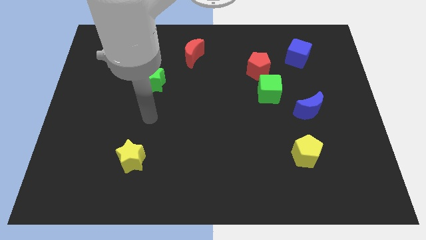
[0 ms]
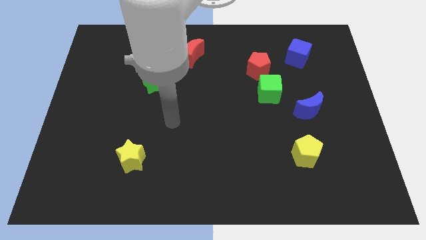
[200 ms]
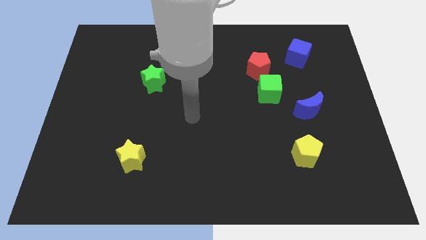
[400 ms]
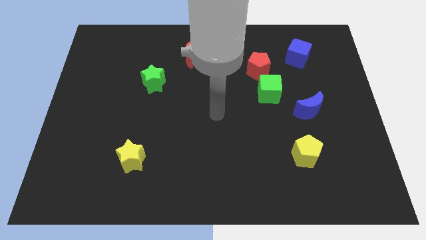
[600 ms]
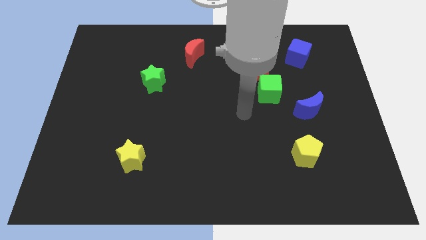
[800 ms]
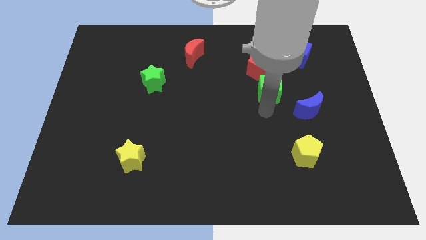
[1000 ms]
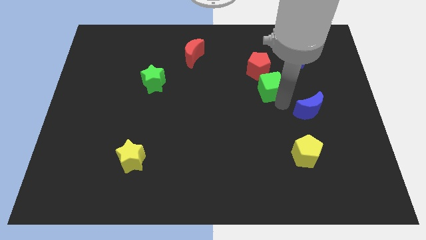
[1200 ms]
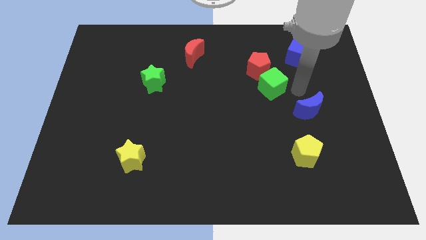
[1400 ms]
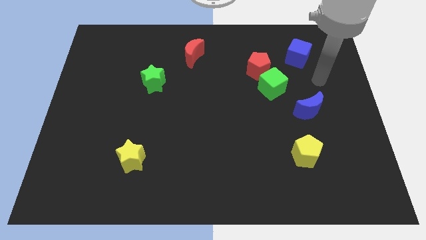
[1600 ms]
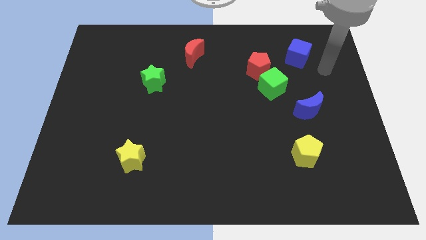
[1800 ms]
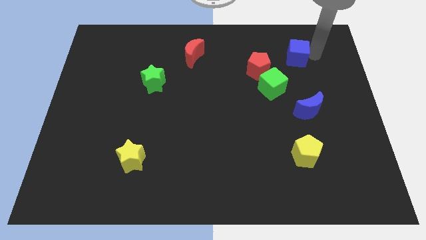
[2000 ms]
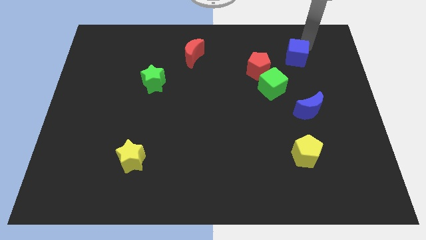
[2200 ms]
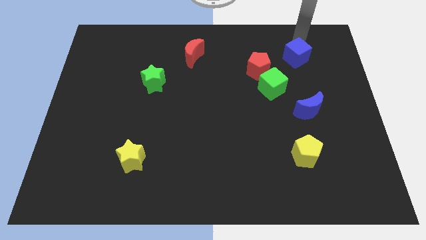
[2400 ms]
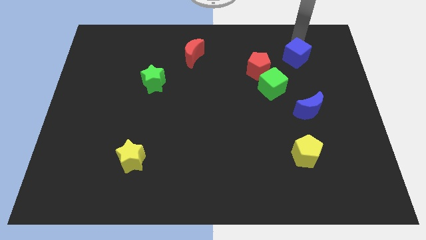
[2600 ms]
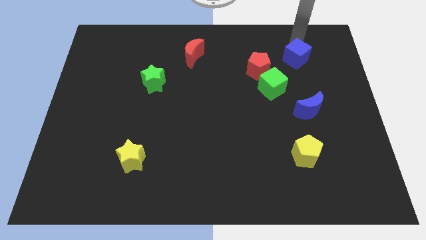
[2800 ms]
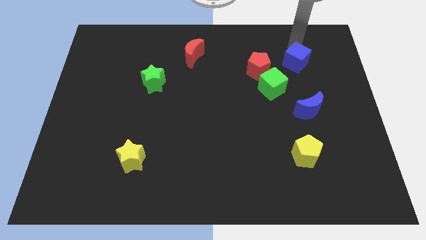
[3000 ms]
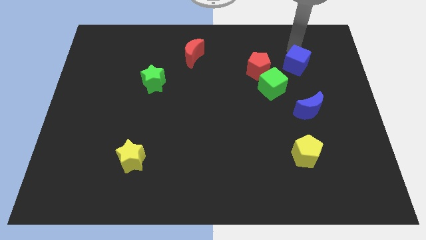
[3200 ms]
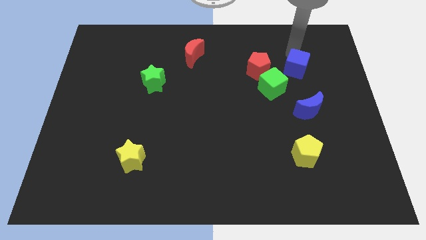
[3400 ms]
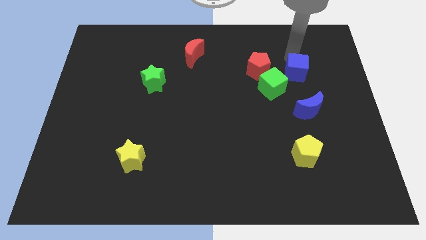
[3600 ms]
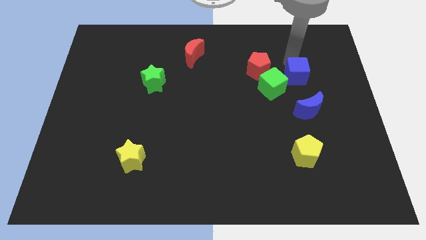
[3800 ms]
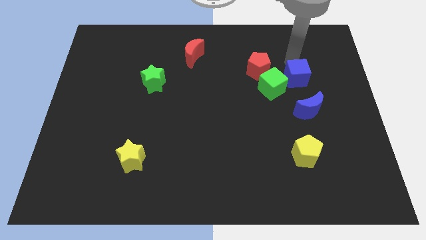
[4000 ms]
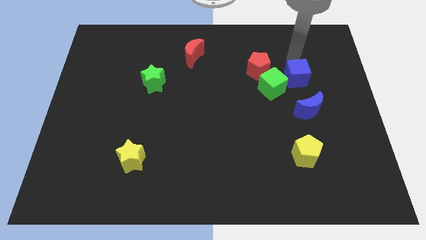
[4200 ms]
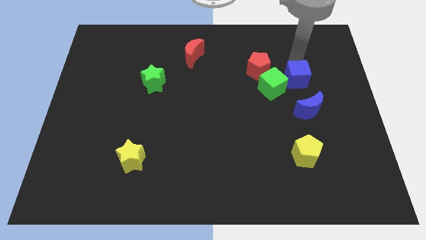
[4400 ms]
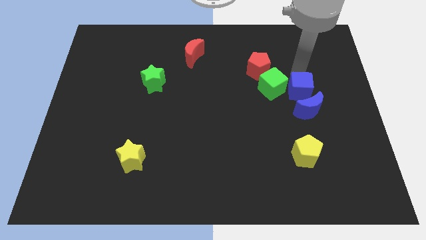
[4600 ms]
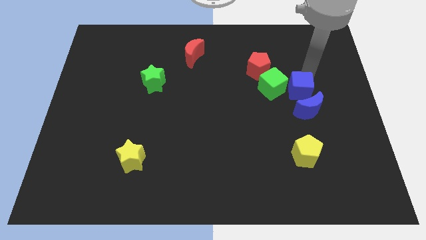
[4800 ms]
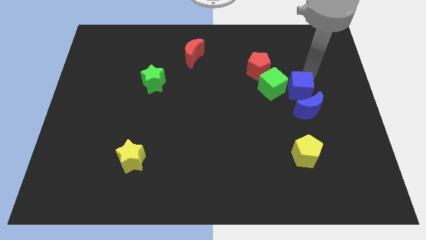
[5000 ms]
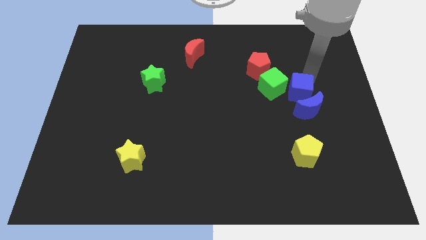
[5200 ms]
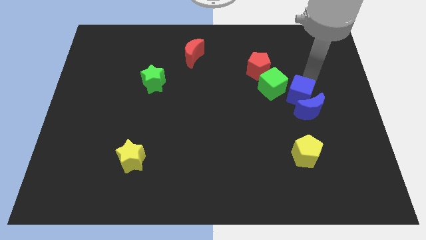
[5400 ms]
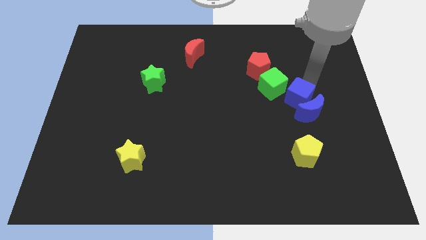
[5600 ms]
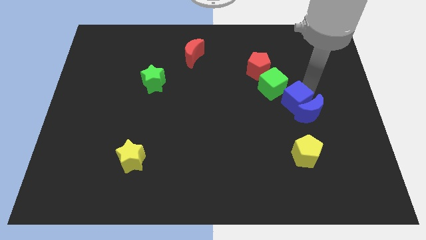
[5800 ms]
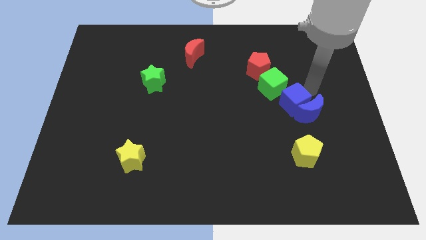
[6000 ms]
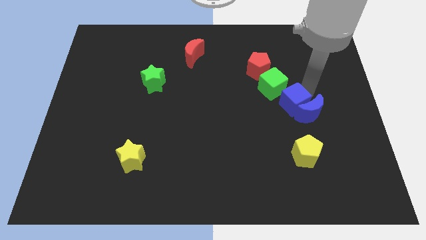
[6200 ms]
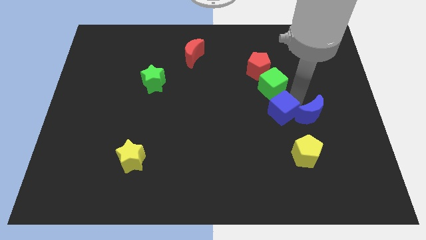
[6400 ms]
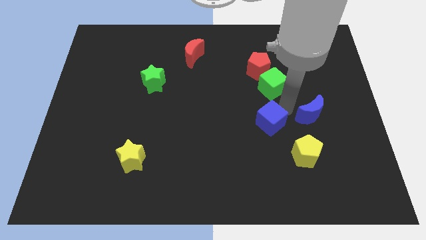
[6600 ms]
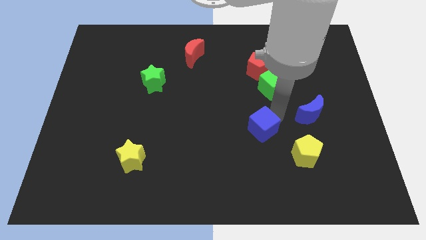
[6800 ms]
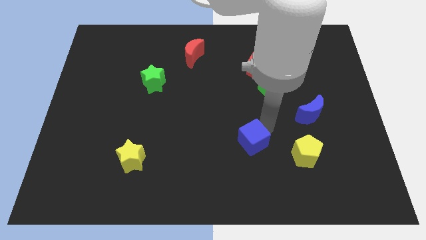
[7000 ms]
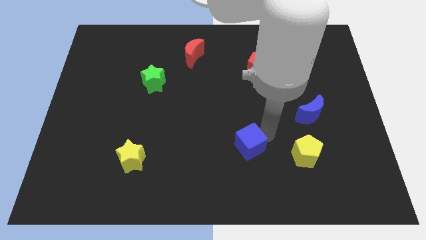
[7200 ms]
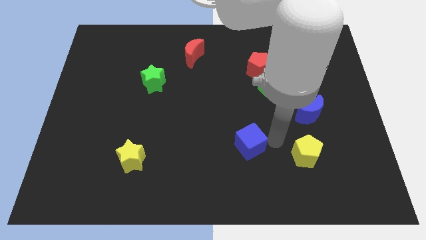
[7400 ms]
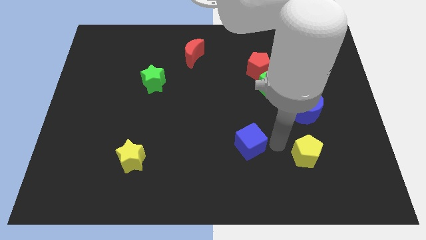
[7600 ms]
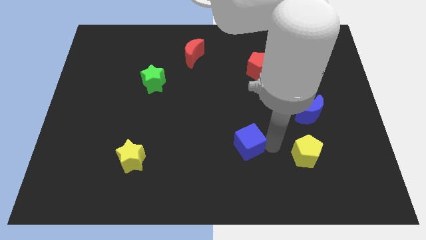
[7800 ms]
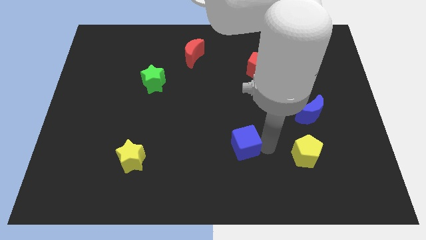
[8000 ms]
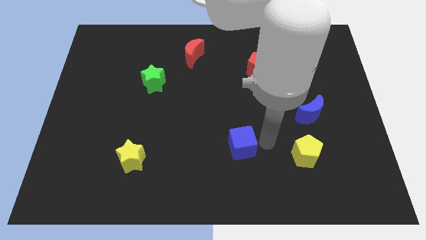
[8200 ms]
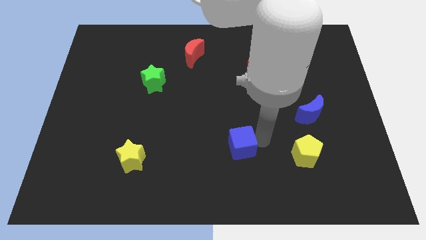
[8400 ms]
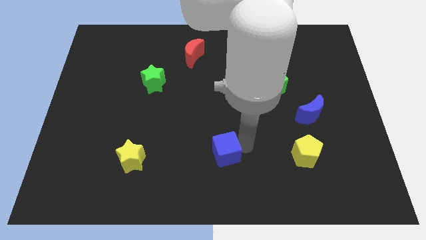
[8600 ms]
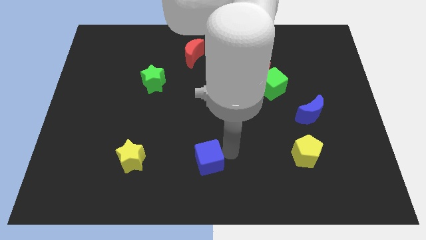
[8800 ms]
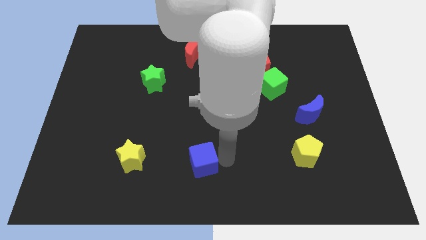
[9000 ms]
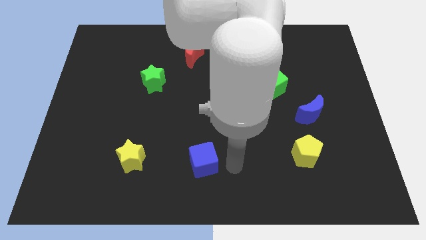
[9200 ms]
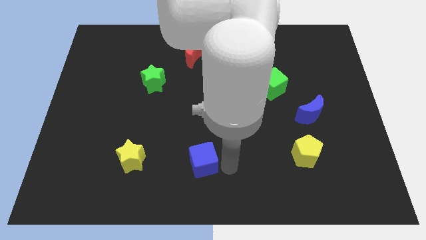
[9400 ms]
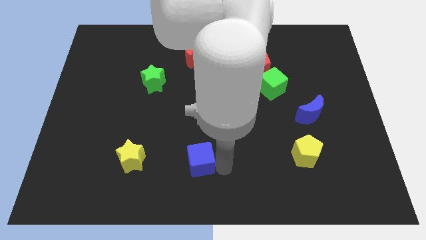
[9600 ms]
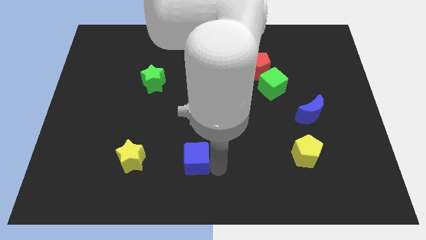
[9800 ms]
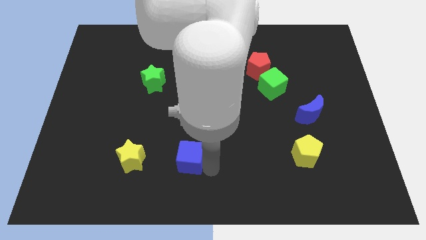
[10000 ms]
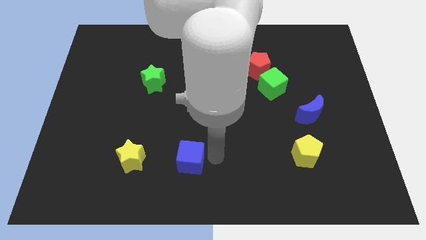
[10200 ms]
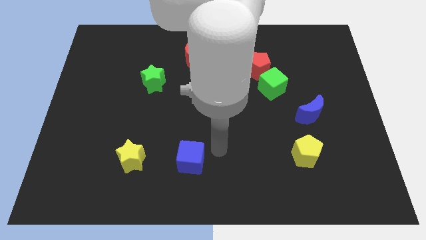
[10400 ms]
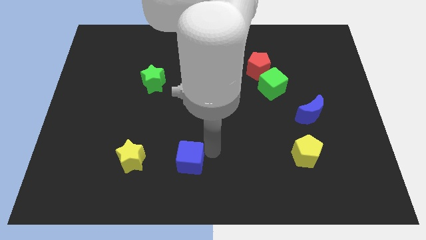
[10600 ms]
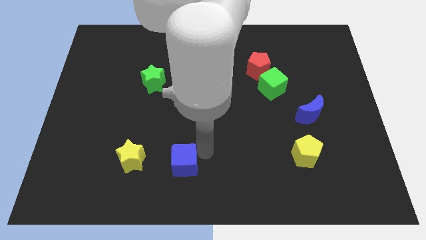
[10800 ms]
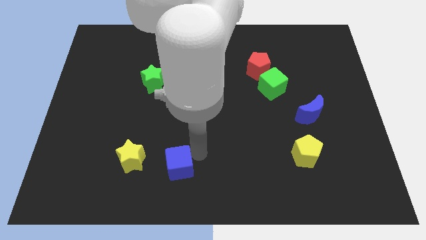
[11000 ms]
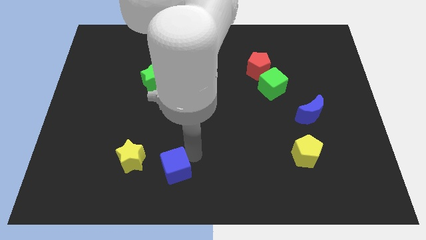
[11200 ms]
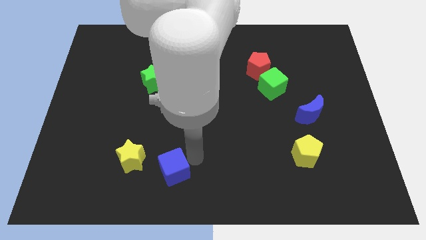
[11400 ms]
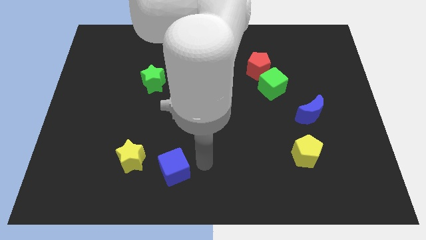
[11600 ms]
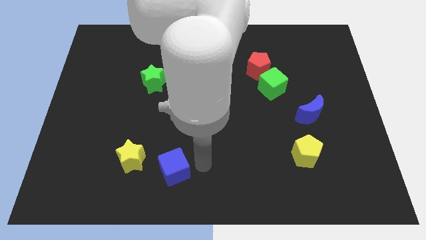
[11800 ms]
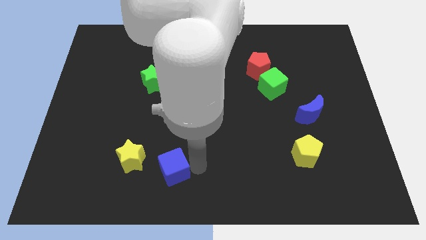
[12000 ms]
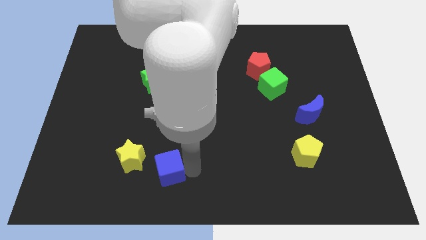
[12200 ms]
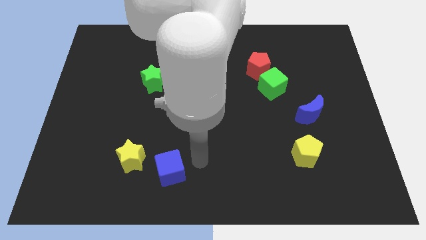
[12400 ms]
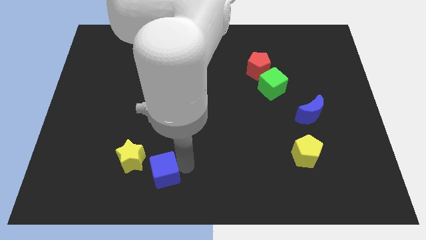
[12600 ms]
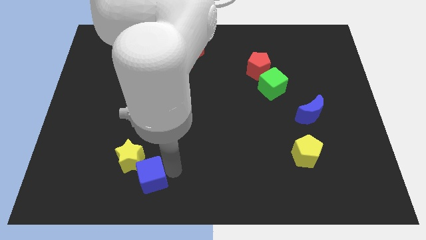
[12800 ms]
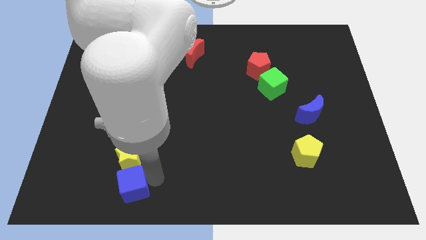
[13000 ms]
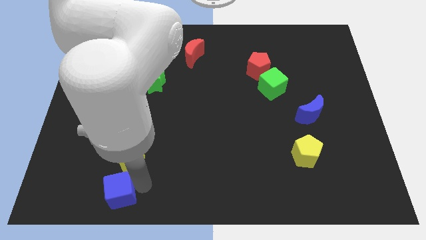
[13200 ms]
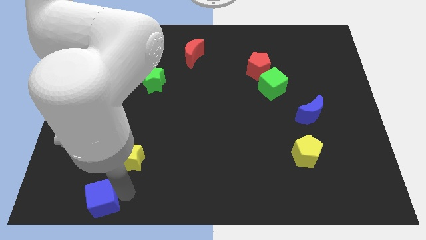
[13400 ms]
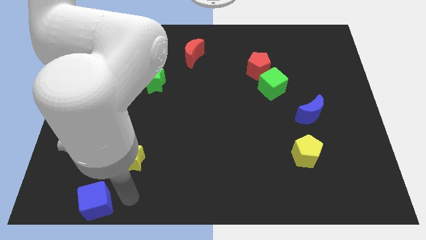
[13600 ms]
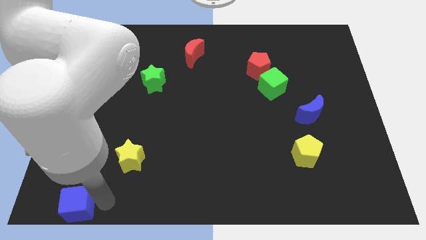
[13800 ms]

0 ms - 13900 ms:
push the blue cube to the bottom left
